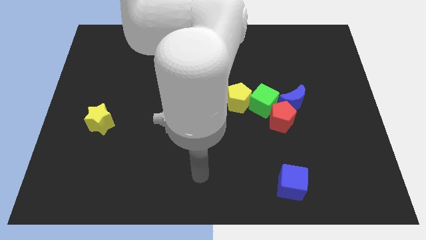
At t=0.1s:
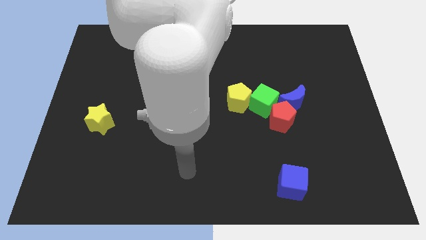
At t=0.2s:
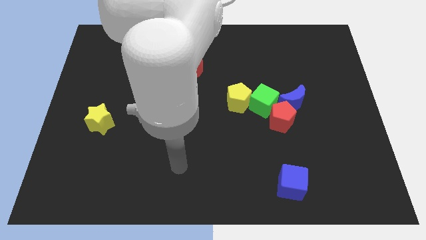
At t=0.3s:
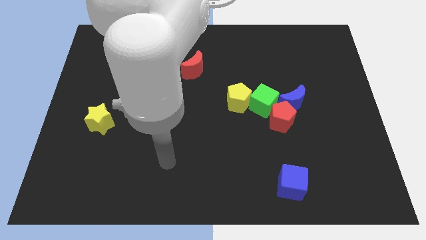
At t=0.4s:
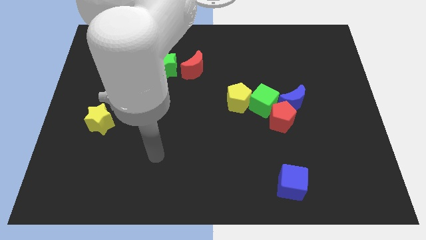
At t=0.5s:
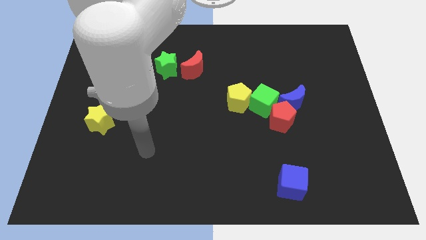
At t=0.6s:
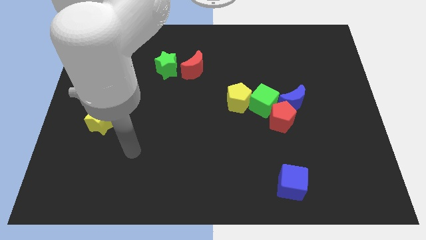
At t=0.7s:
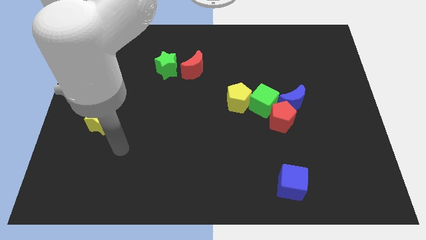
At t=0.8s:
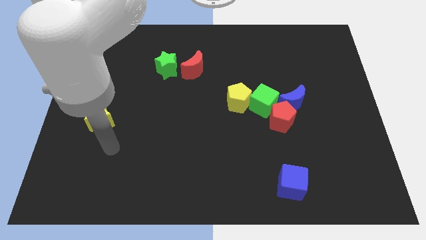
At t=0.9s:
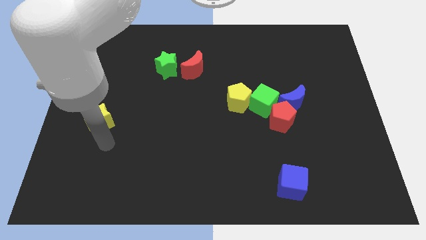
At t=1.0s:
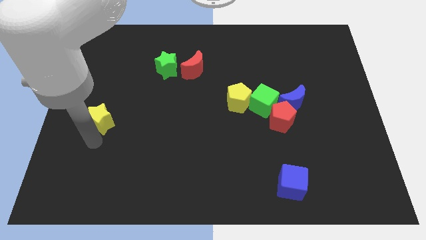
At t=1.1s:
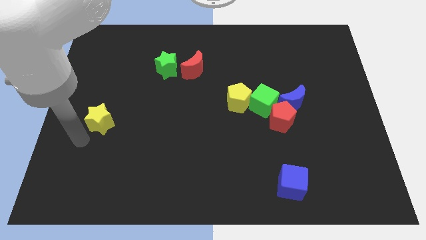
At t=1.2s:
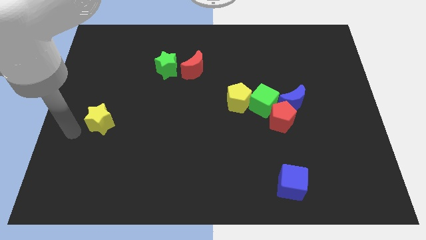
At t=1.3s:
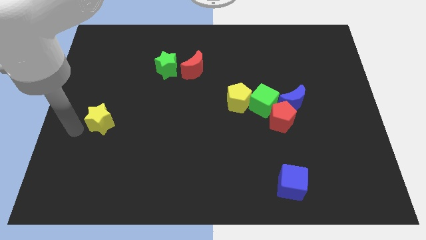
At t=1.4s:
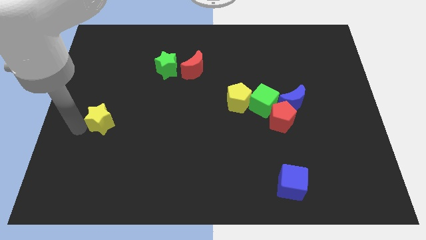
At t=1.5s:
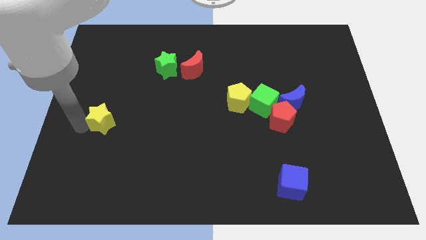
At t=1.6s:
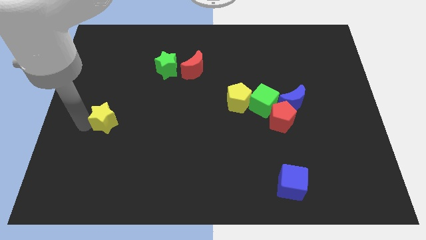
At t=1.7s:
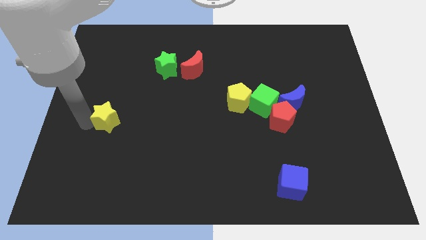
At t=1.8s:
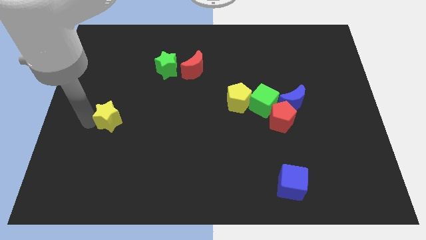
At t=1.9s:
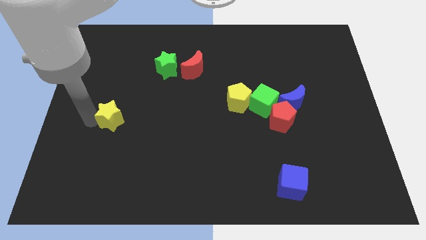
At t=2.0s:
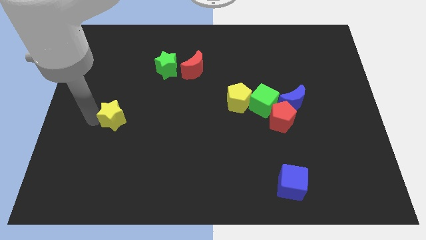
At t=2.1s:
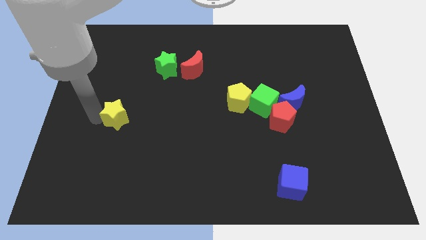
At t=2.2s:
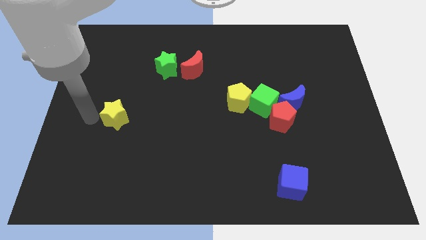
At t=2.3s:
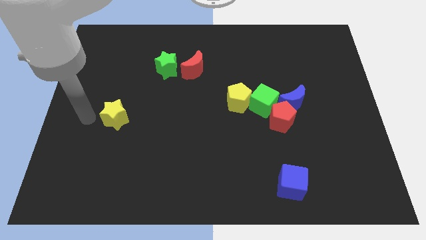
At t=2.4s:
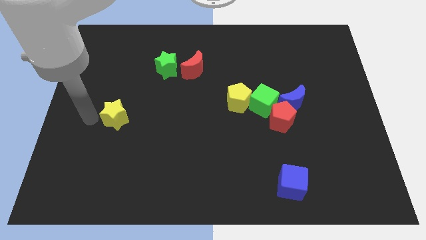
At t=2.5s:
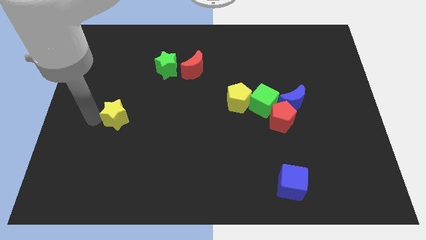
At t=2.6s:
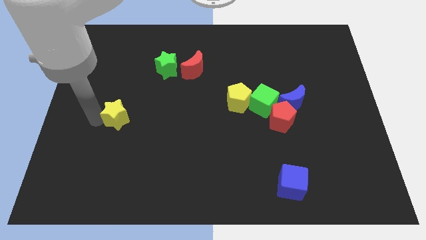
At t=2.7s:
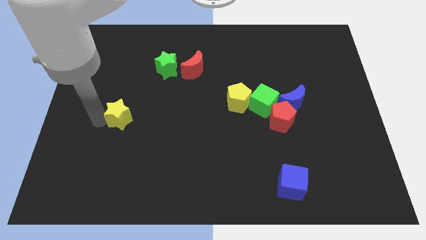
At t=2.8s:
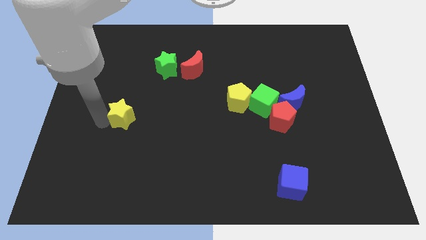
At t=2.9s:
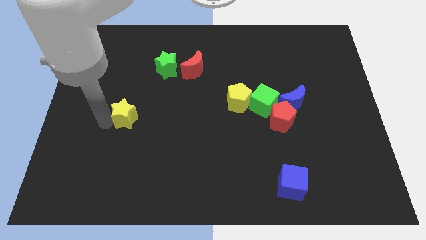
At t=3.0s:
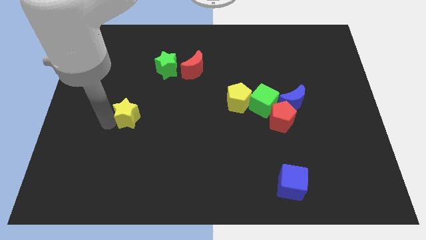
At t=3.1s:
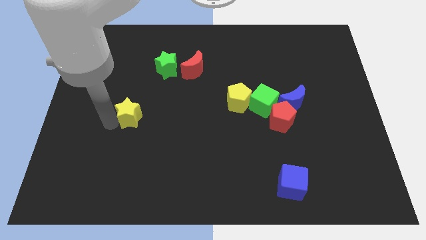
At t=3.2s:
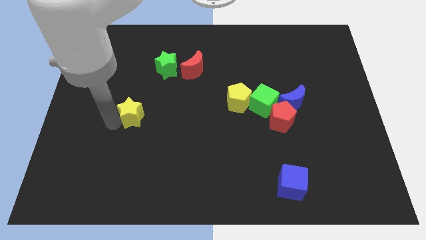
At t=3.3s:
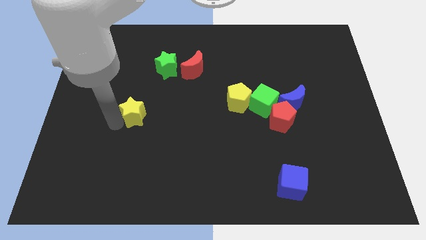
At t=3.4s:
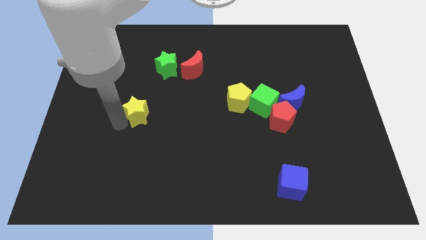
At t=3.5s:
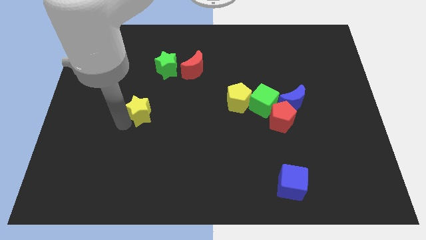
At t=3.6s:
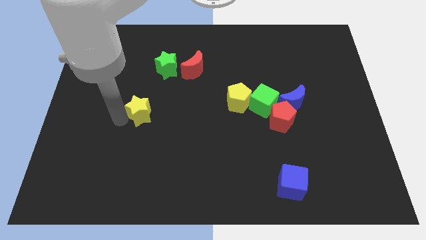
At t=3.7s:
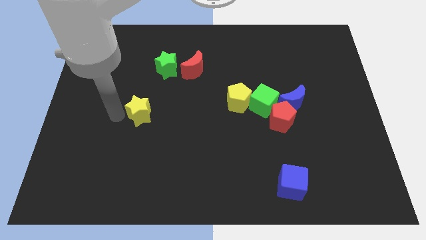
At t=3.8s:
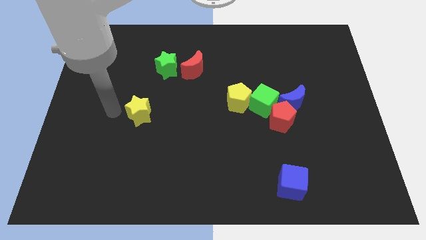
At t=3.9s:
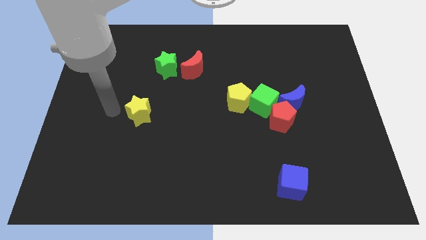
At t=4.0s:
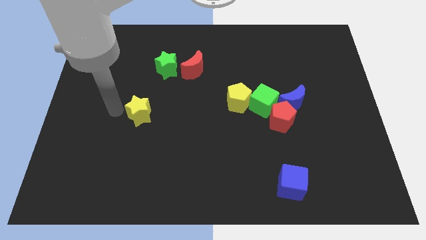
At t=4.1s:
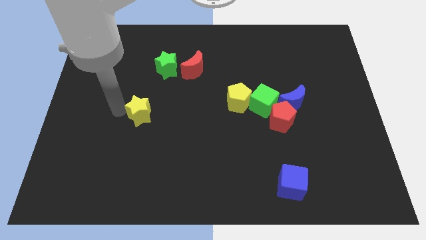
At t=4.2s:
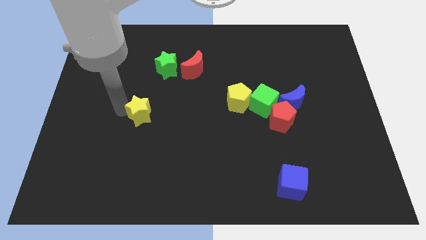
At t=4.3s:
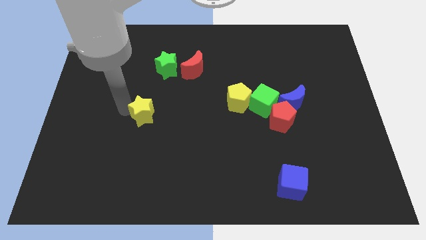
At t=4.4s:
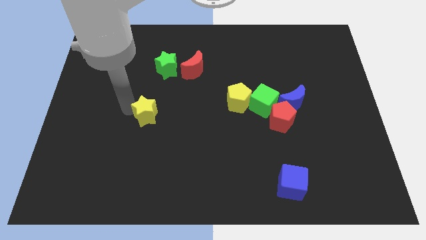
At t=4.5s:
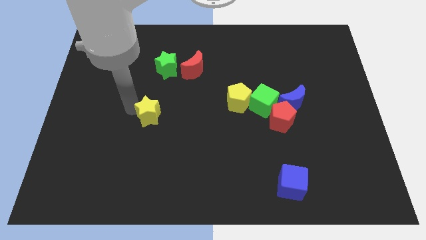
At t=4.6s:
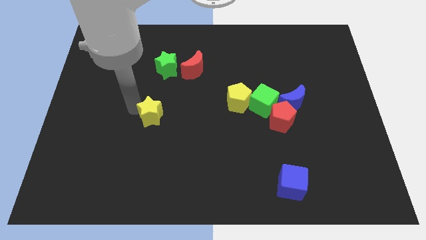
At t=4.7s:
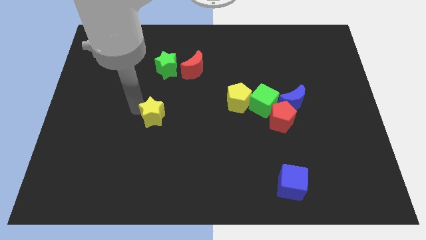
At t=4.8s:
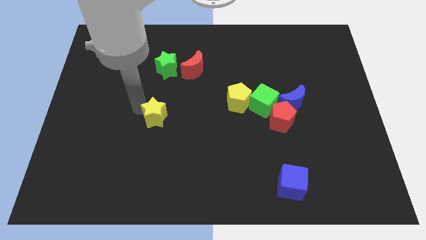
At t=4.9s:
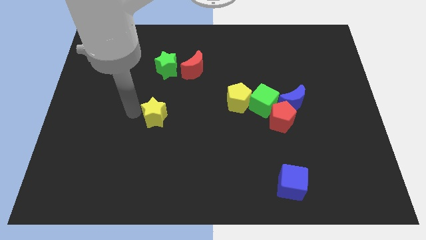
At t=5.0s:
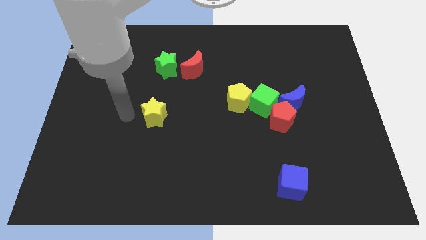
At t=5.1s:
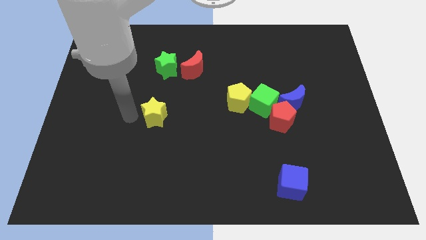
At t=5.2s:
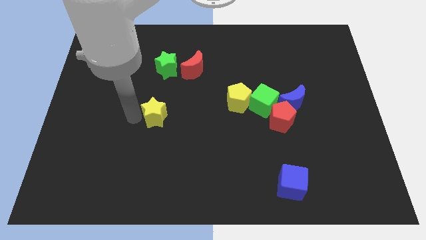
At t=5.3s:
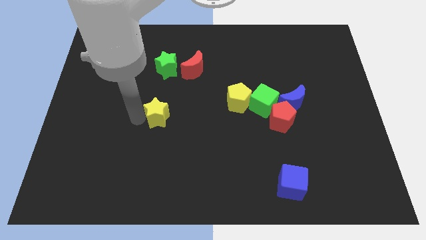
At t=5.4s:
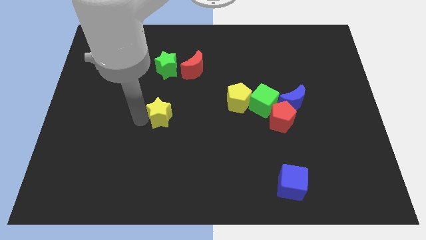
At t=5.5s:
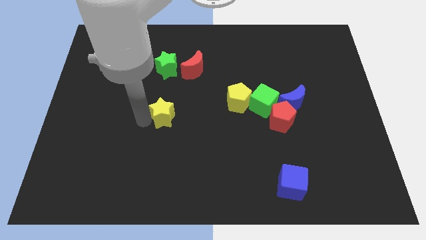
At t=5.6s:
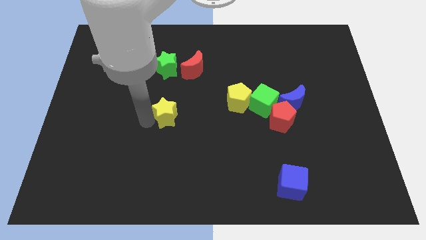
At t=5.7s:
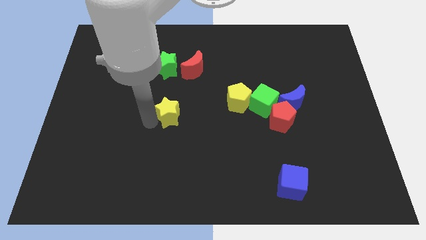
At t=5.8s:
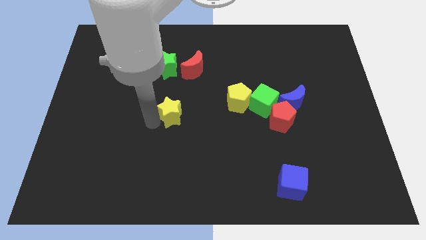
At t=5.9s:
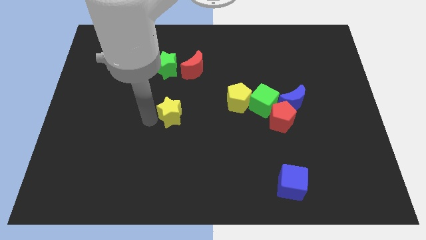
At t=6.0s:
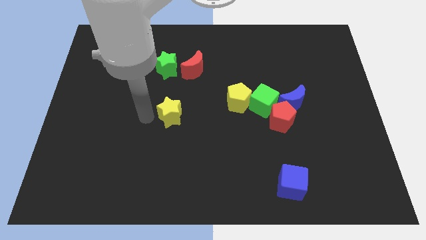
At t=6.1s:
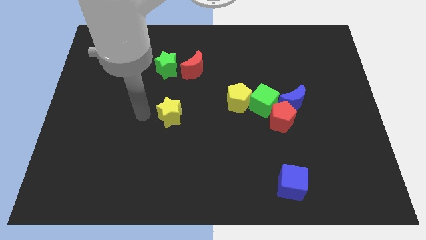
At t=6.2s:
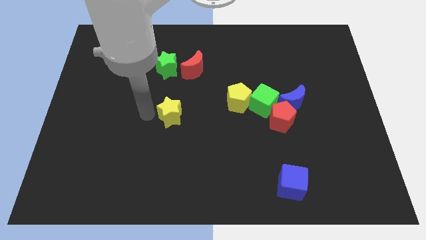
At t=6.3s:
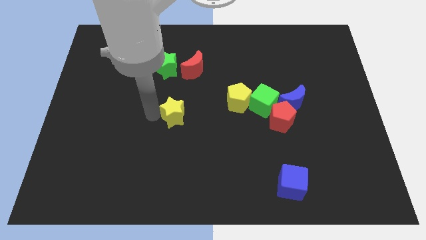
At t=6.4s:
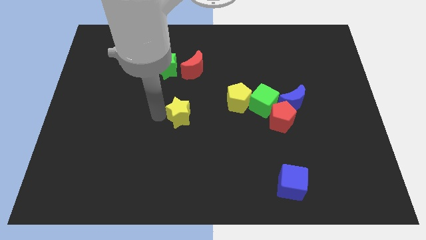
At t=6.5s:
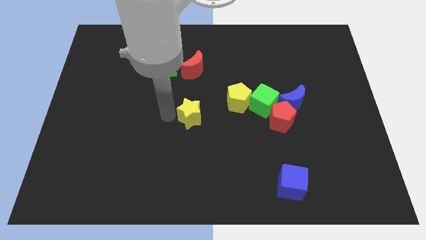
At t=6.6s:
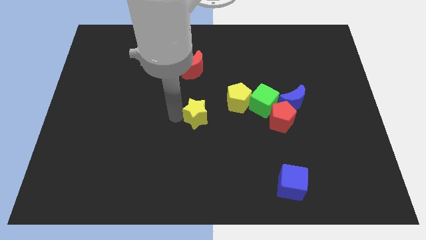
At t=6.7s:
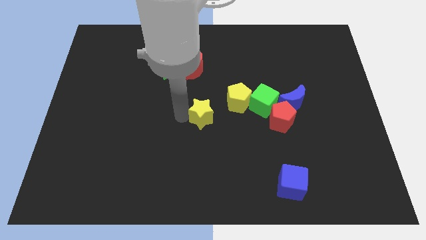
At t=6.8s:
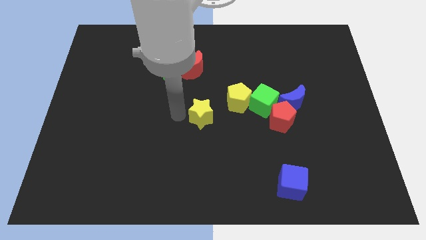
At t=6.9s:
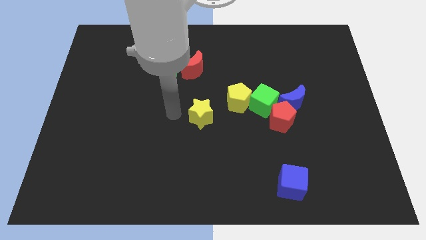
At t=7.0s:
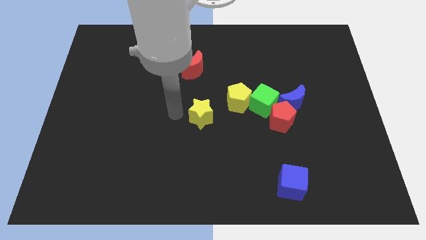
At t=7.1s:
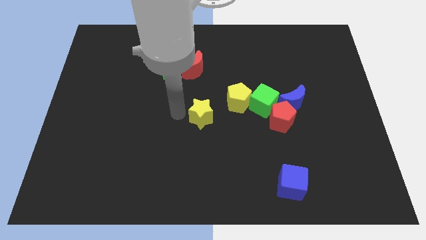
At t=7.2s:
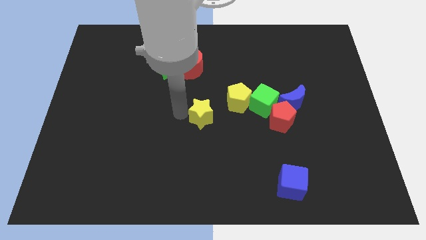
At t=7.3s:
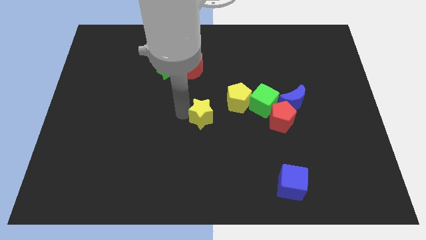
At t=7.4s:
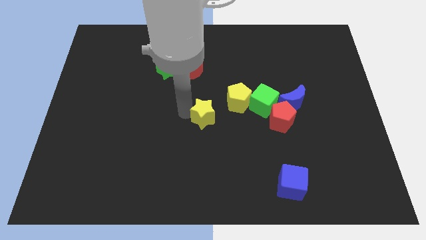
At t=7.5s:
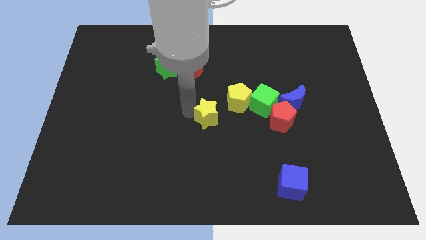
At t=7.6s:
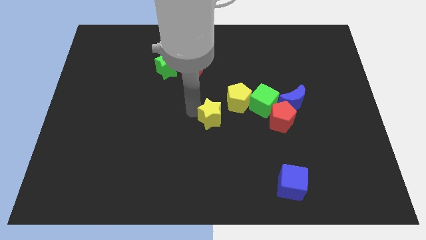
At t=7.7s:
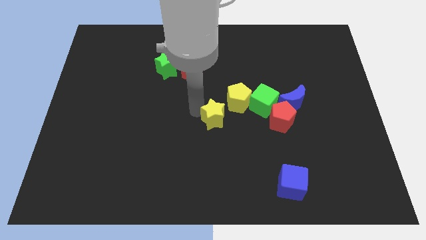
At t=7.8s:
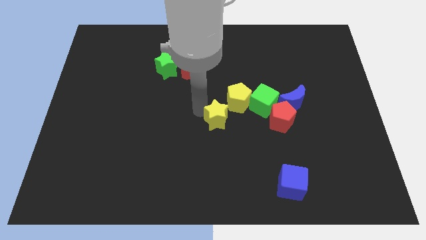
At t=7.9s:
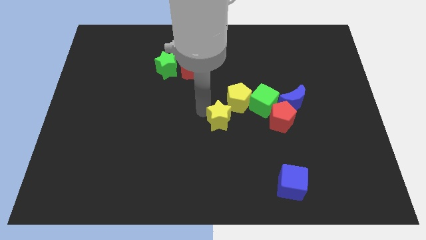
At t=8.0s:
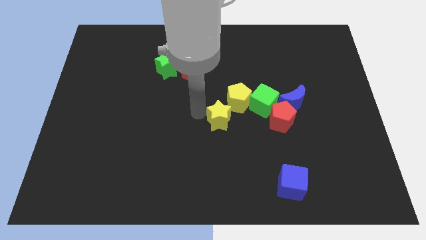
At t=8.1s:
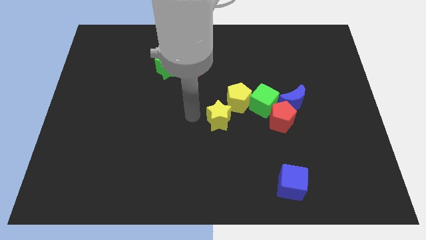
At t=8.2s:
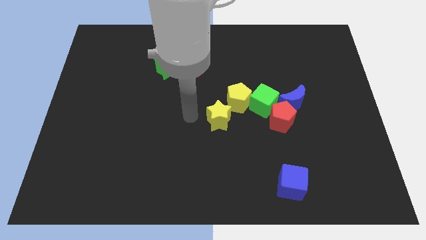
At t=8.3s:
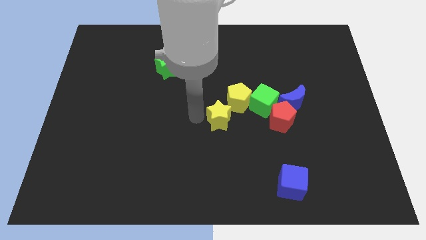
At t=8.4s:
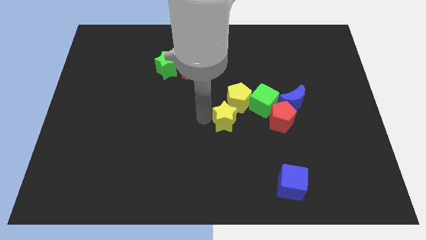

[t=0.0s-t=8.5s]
put the yellow star diagonally down and to the left of the green cube
